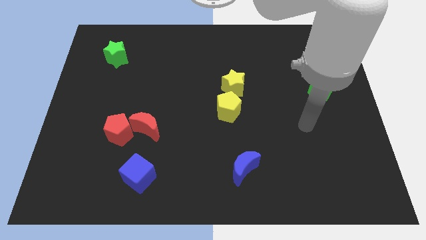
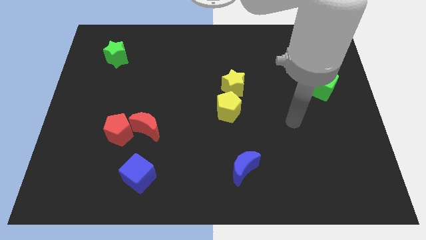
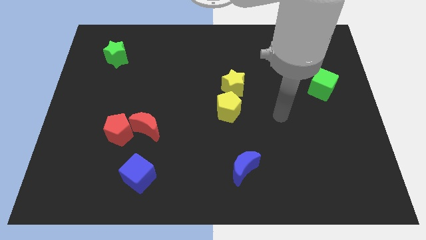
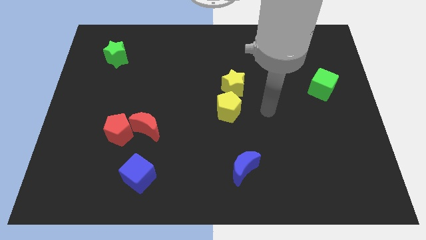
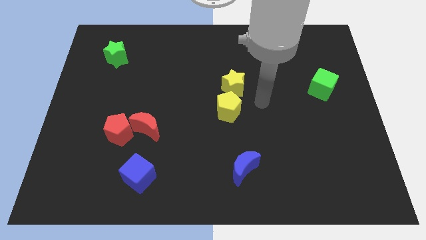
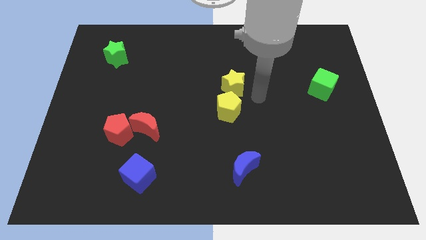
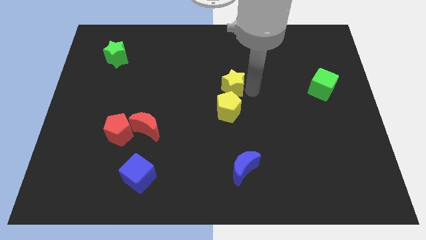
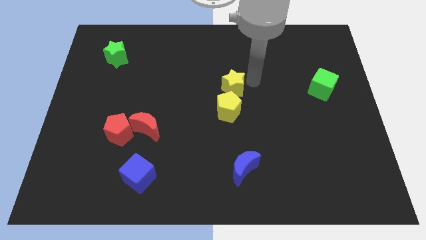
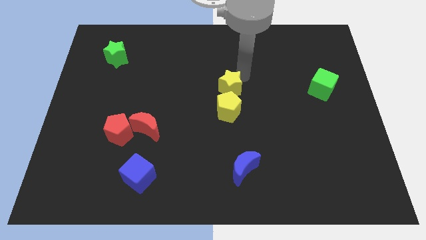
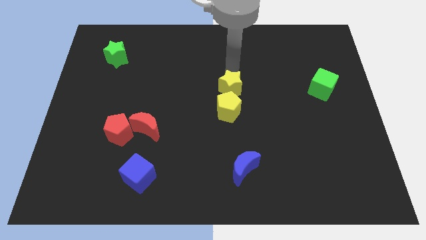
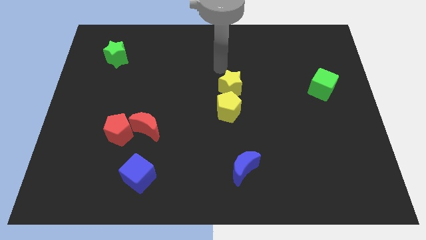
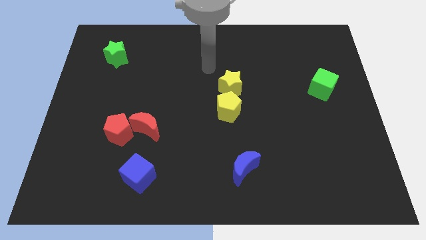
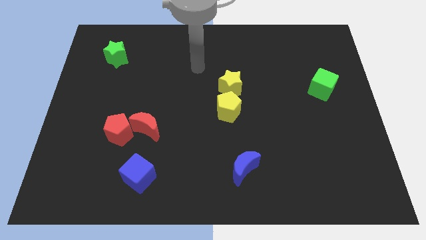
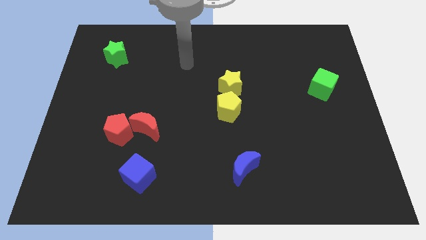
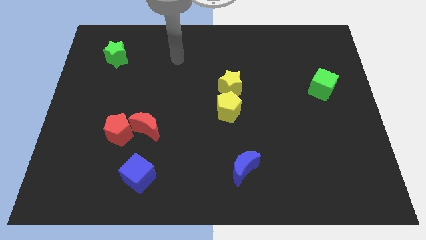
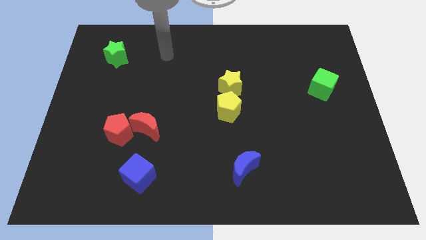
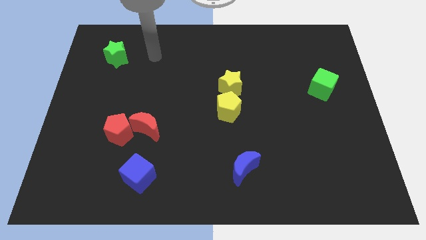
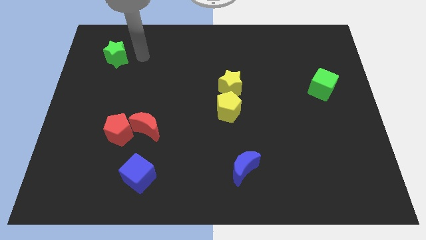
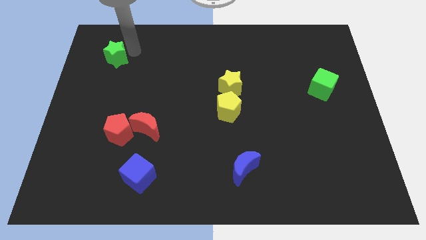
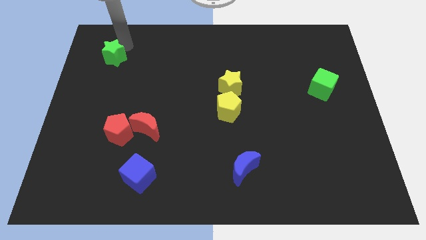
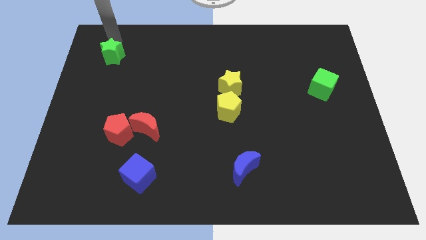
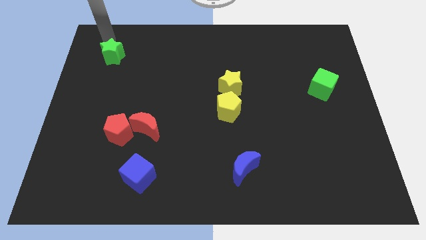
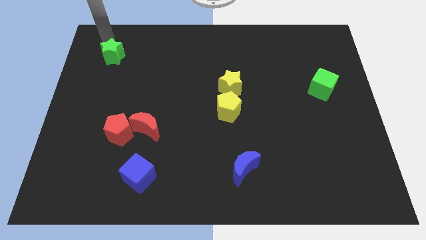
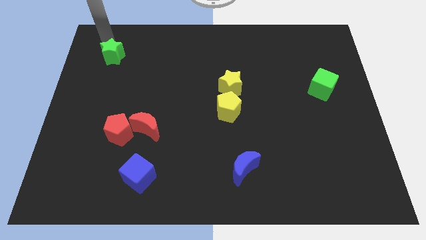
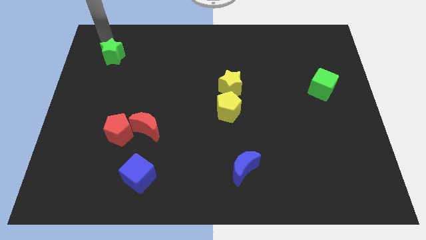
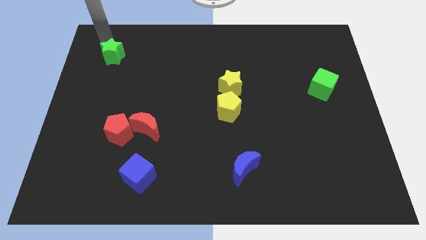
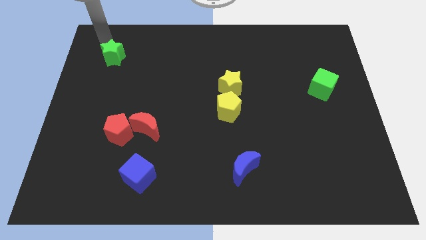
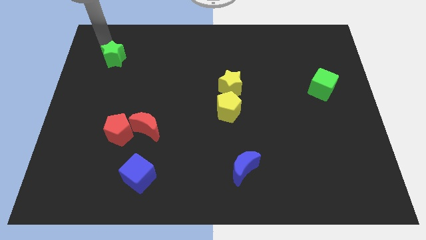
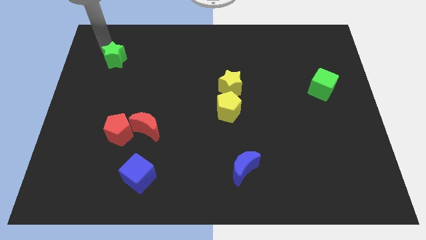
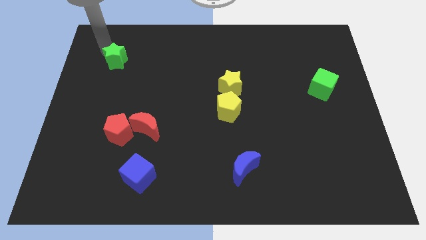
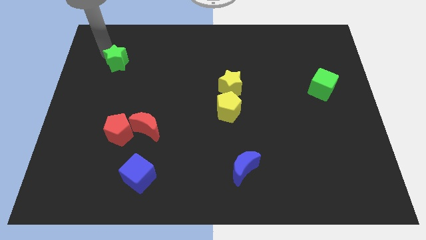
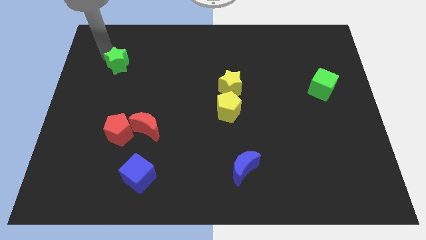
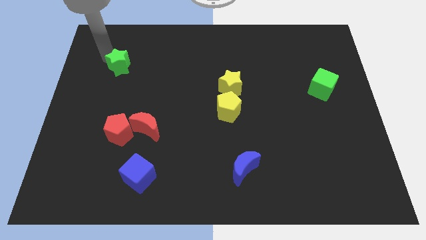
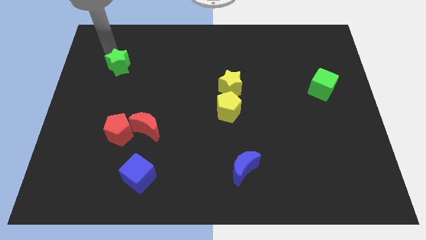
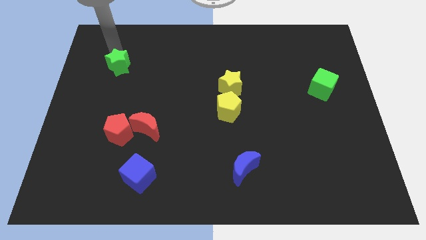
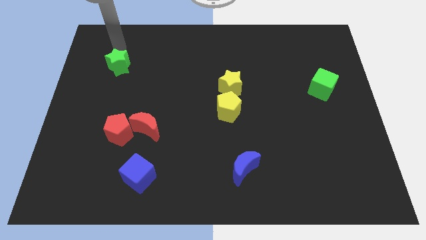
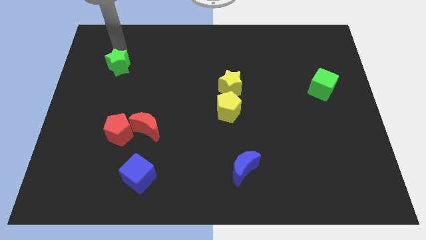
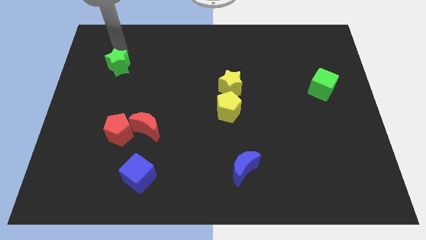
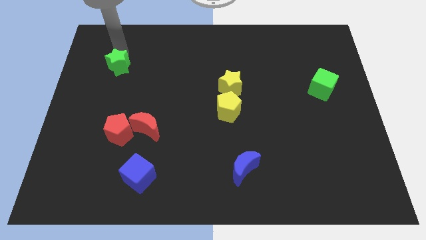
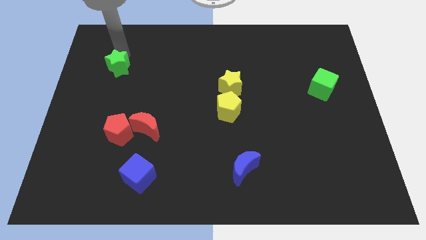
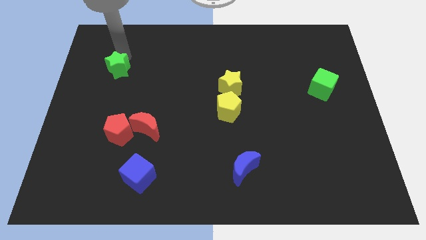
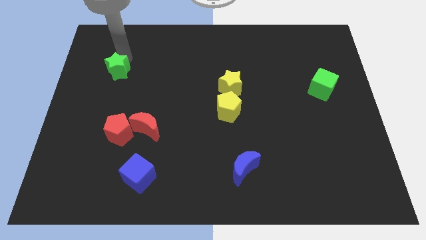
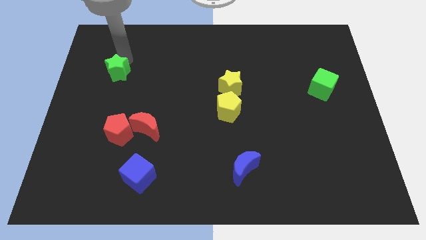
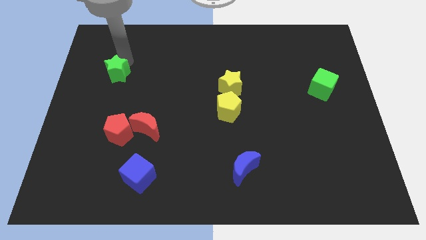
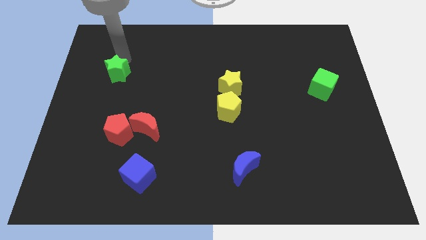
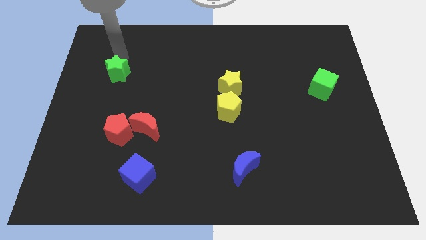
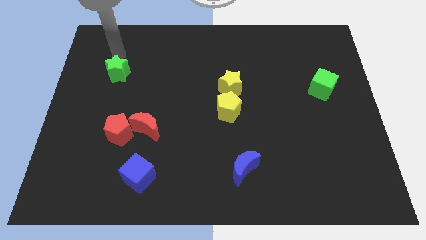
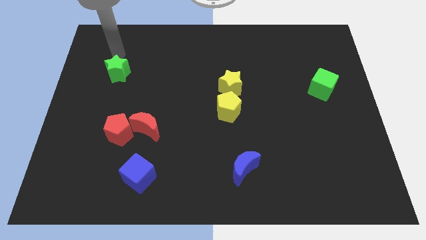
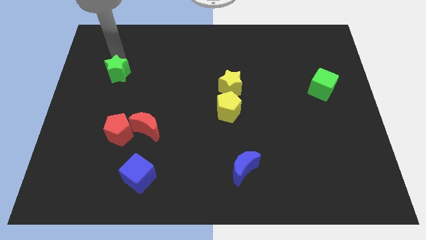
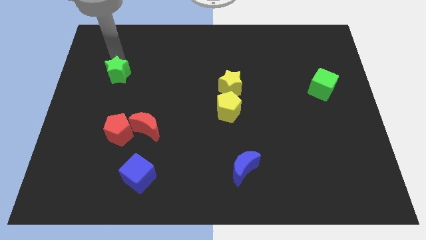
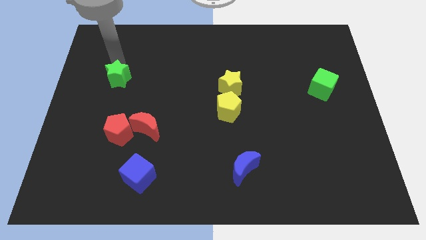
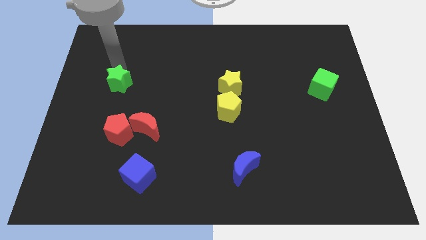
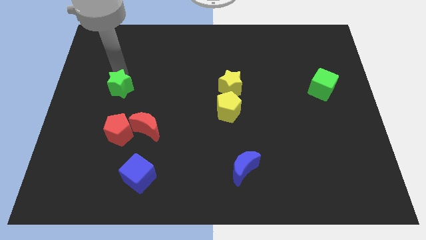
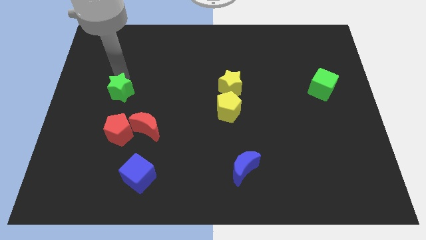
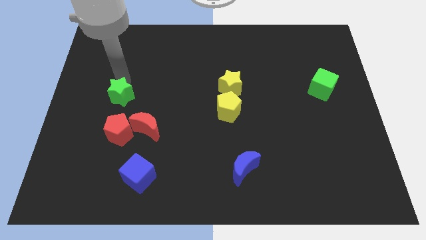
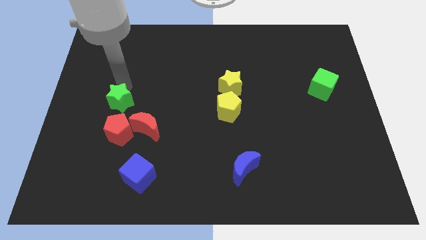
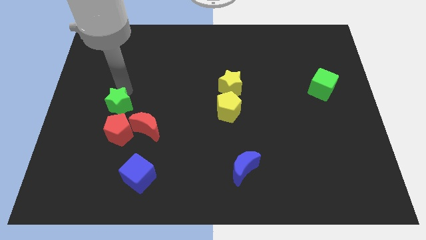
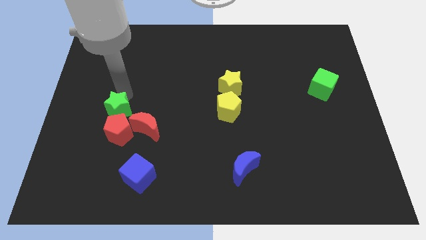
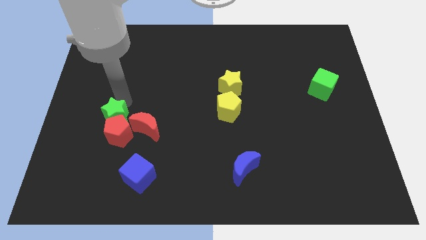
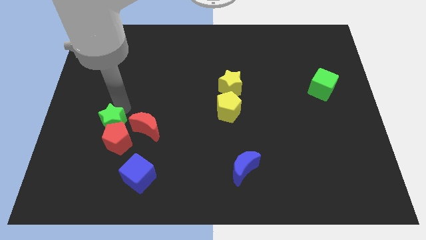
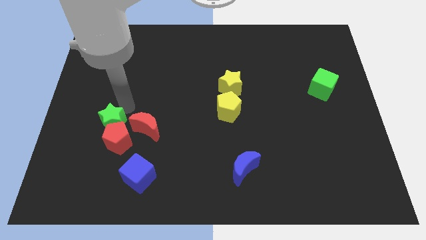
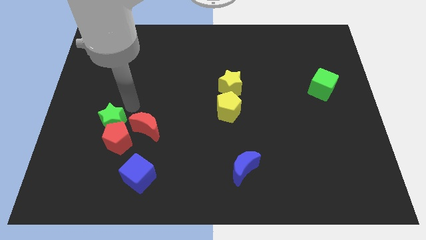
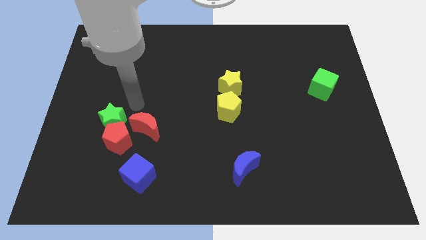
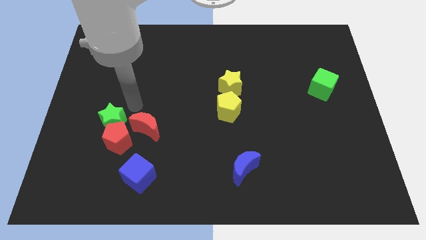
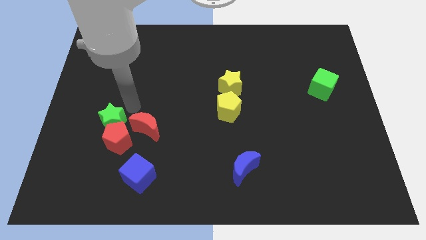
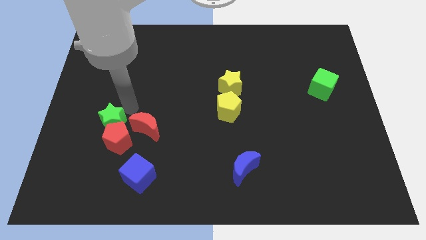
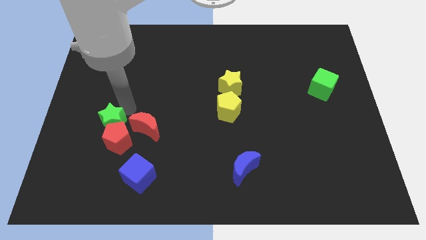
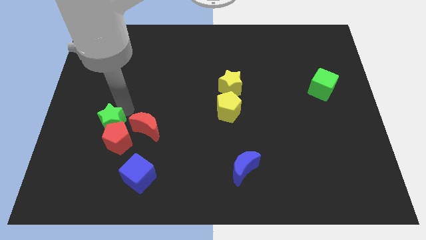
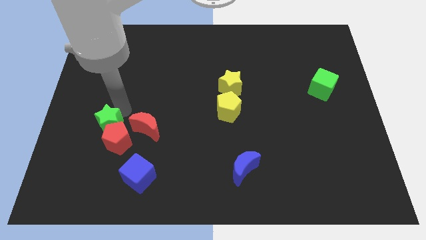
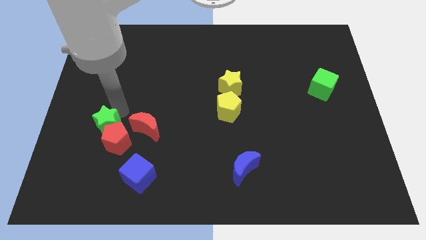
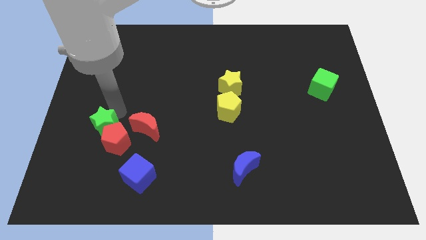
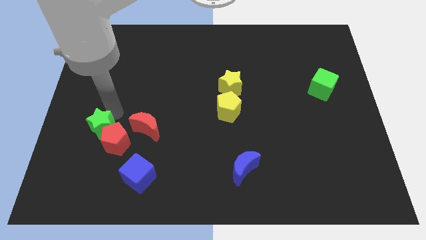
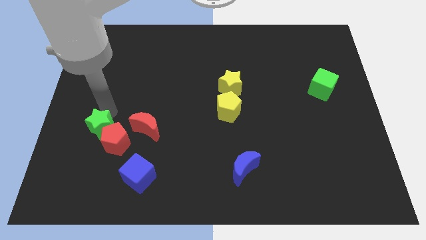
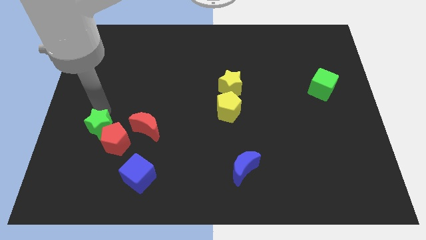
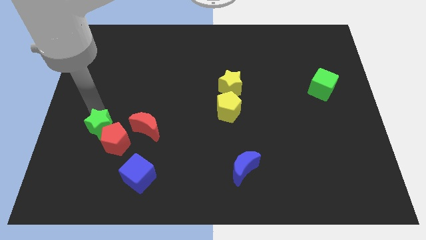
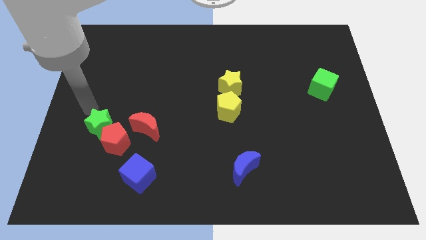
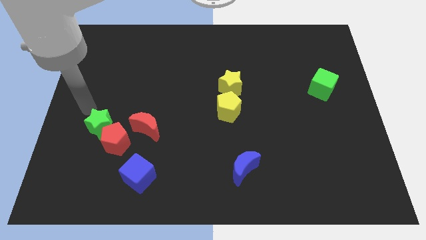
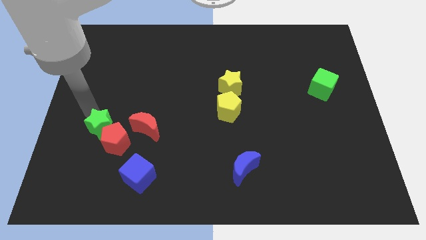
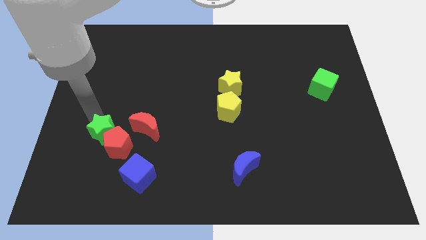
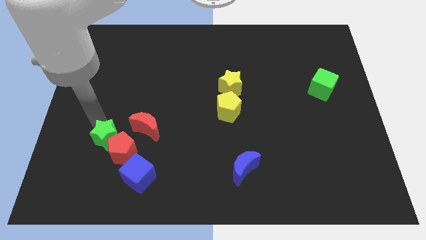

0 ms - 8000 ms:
push the green star diagonally down and to the left of the red moon
